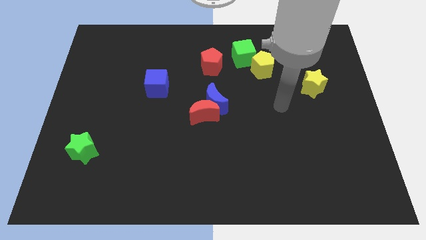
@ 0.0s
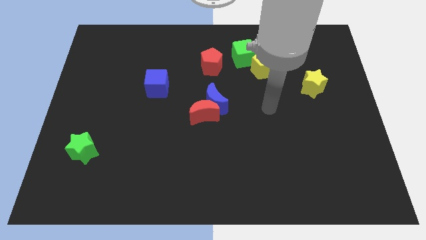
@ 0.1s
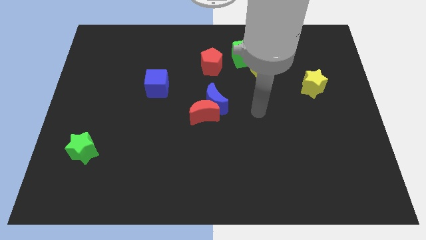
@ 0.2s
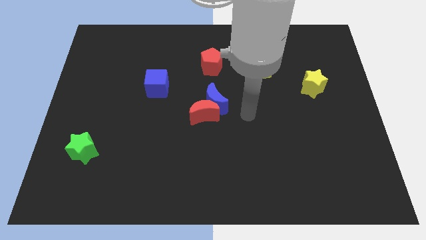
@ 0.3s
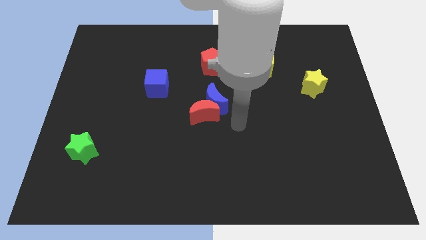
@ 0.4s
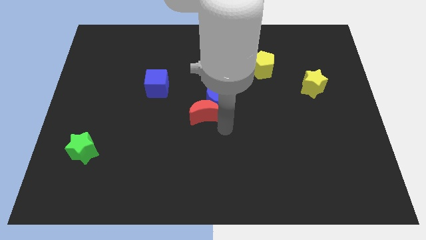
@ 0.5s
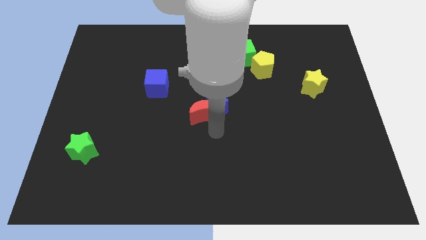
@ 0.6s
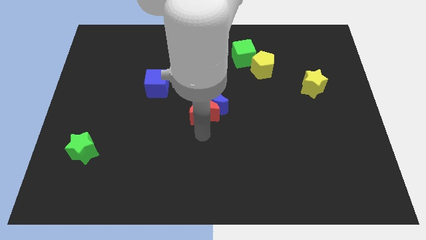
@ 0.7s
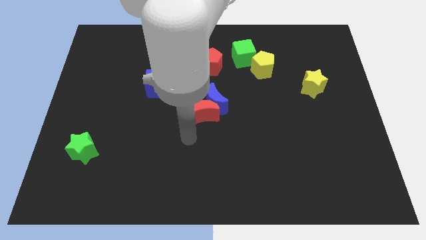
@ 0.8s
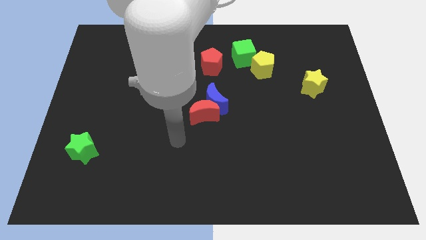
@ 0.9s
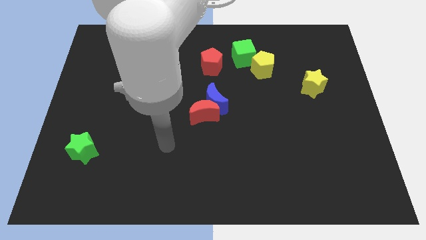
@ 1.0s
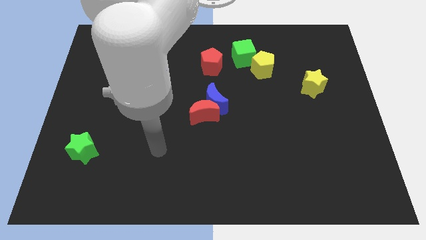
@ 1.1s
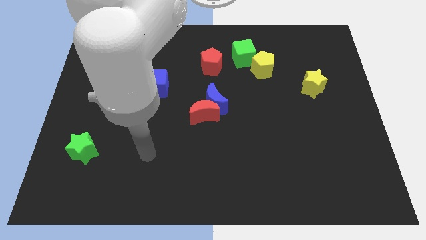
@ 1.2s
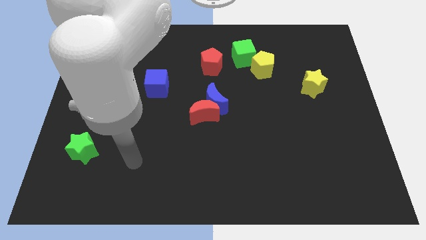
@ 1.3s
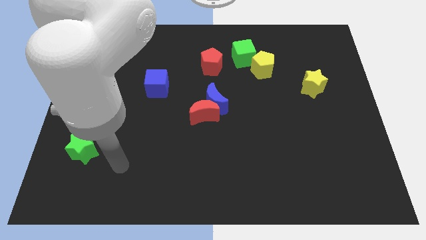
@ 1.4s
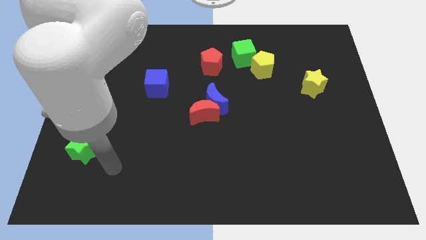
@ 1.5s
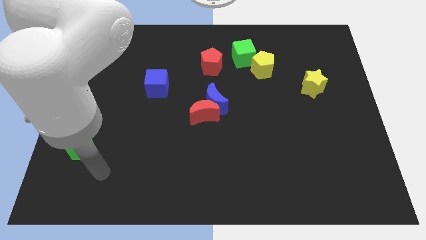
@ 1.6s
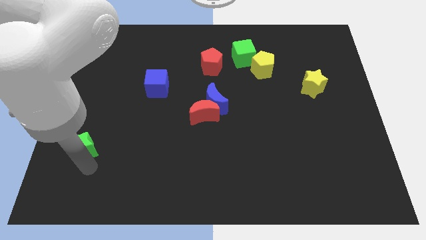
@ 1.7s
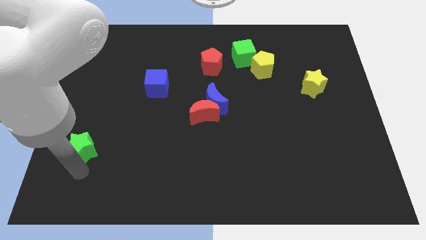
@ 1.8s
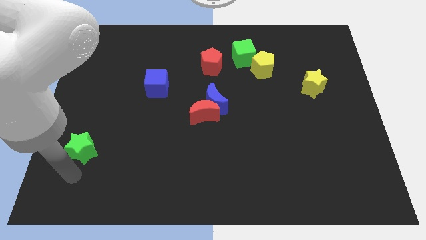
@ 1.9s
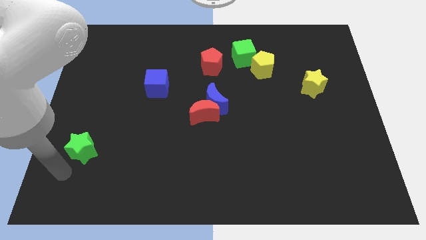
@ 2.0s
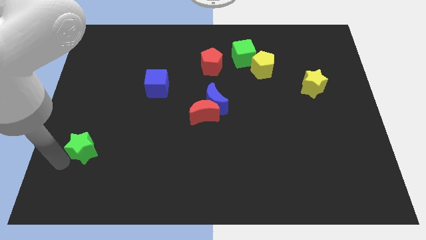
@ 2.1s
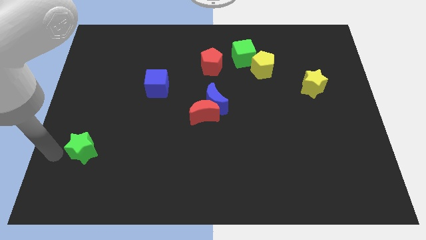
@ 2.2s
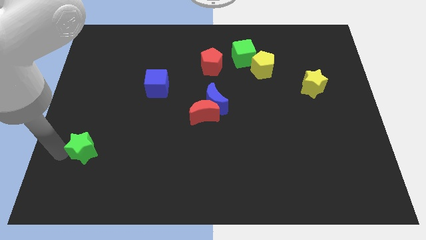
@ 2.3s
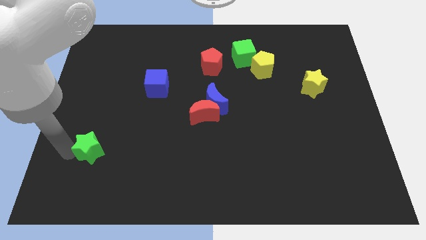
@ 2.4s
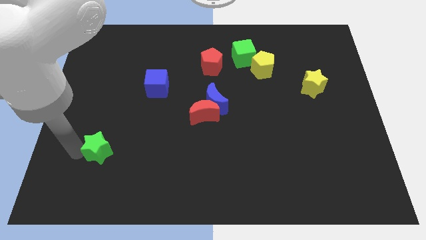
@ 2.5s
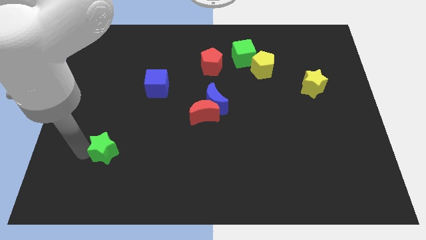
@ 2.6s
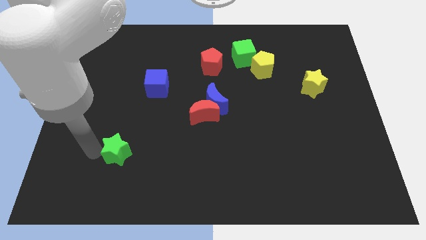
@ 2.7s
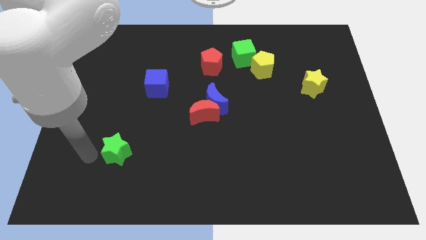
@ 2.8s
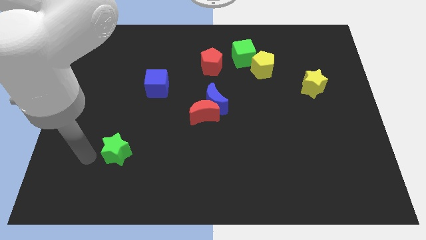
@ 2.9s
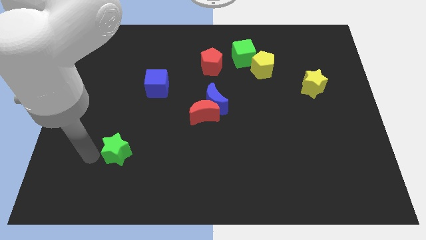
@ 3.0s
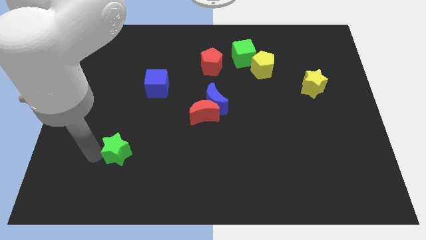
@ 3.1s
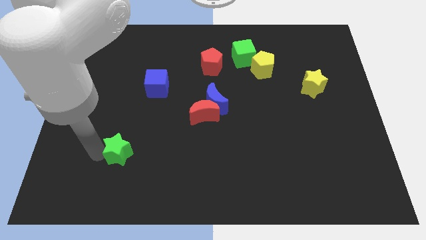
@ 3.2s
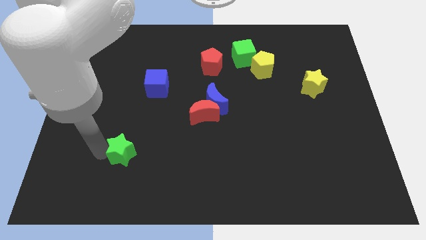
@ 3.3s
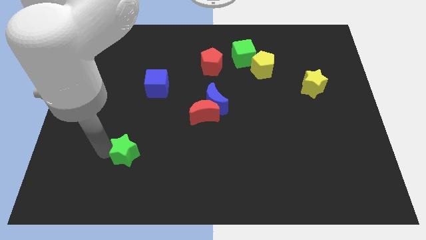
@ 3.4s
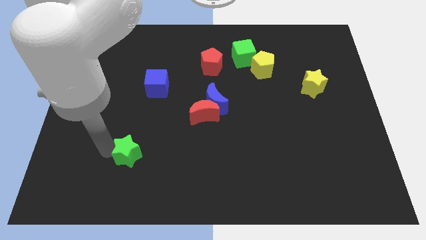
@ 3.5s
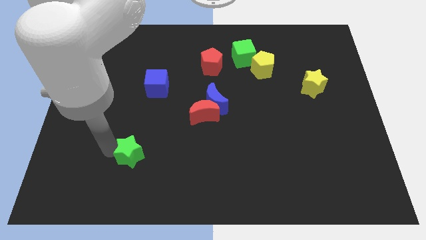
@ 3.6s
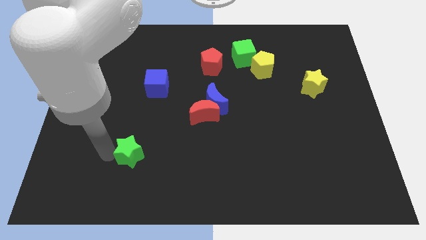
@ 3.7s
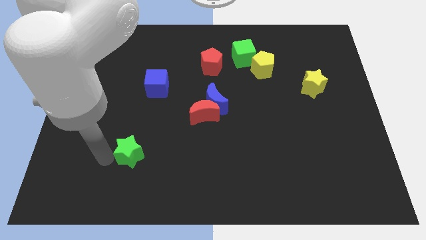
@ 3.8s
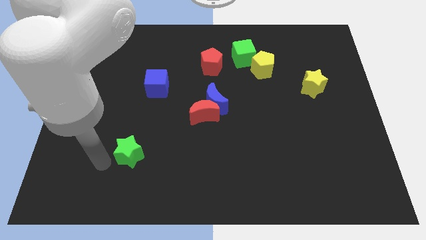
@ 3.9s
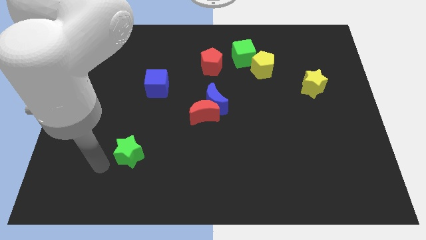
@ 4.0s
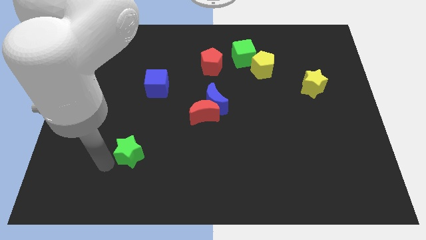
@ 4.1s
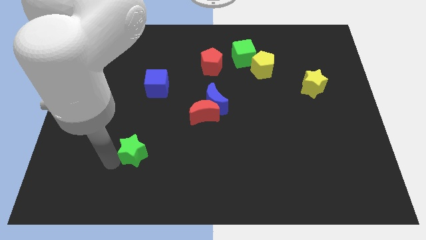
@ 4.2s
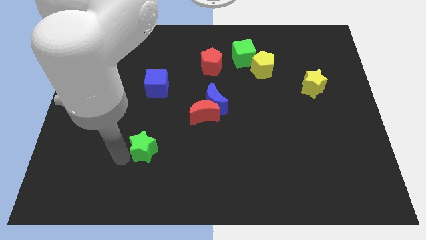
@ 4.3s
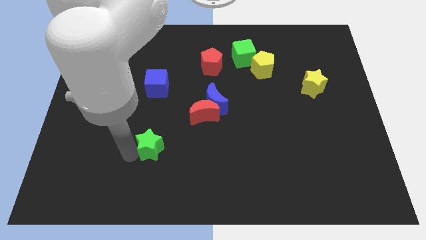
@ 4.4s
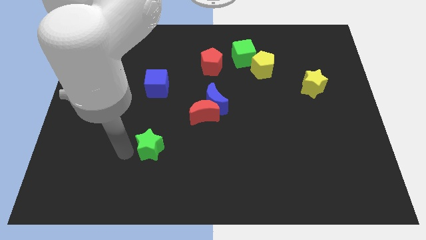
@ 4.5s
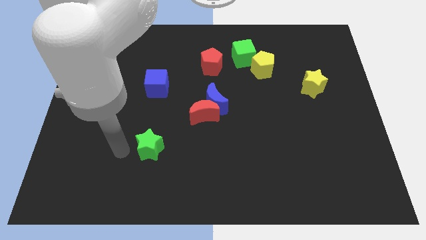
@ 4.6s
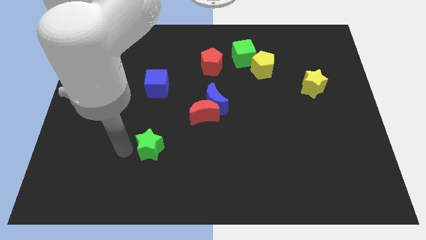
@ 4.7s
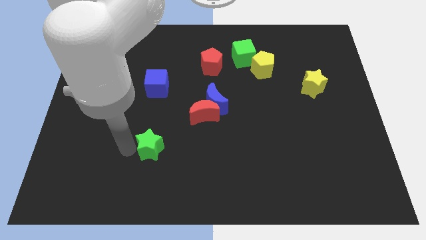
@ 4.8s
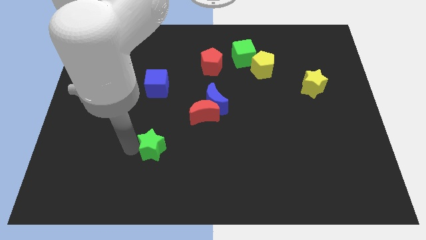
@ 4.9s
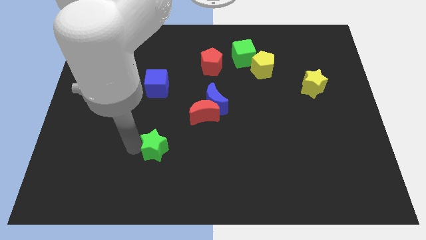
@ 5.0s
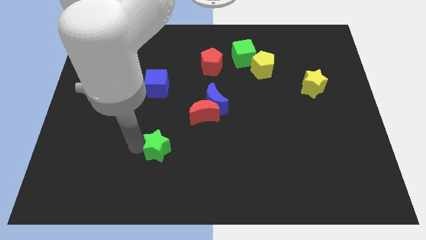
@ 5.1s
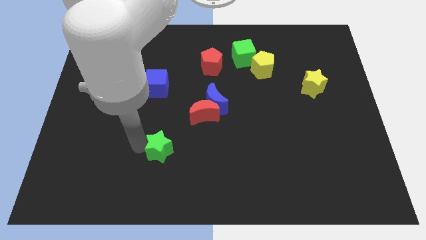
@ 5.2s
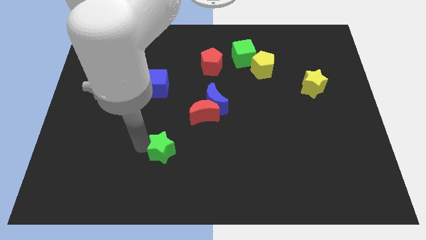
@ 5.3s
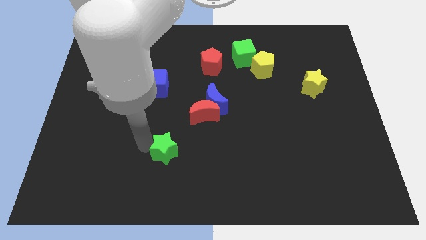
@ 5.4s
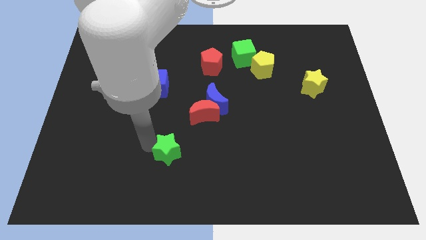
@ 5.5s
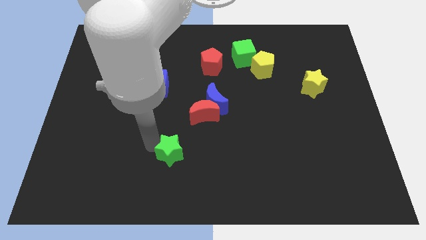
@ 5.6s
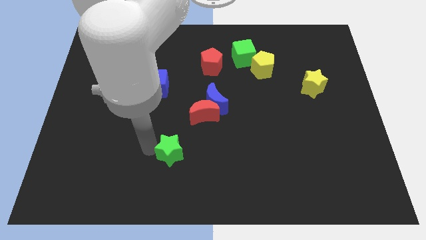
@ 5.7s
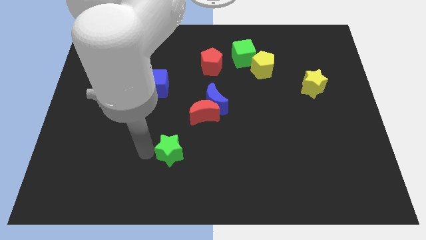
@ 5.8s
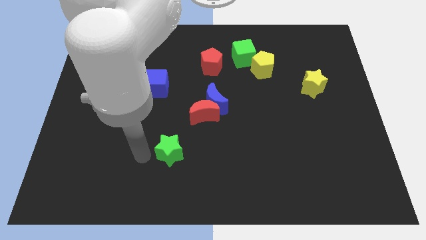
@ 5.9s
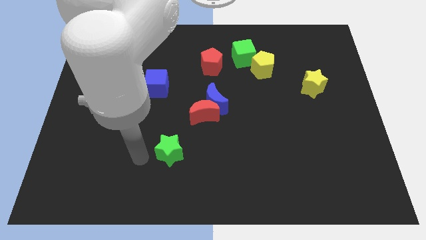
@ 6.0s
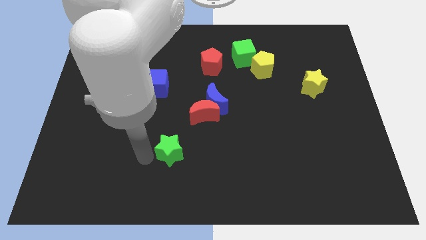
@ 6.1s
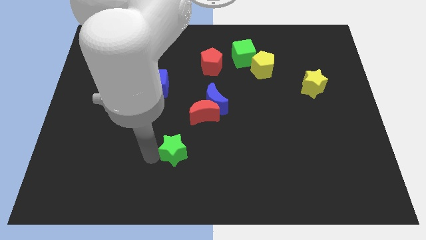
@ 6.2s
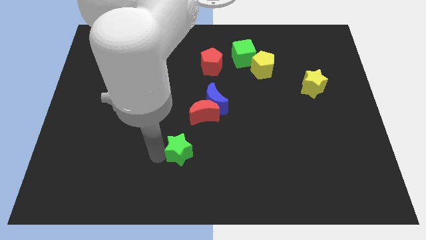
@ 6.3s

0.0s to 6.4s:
slide the green star to the right

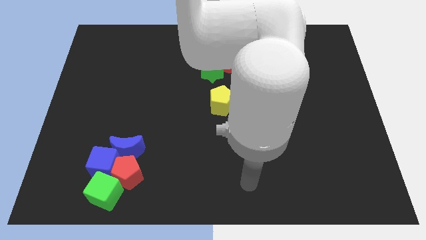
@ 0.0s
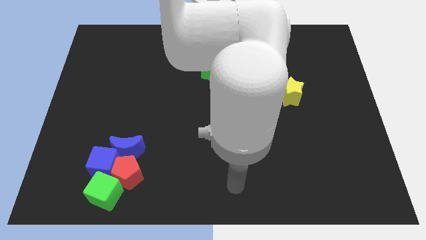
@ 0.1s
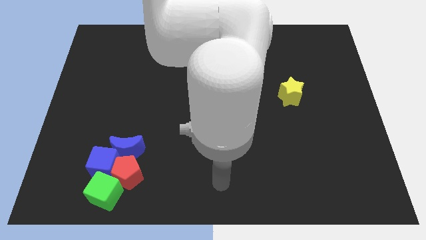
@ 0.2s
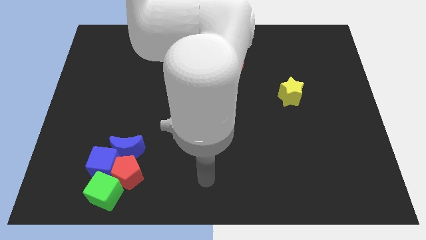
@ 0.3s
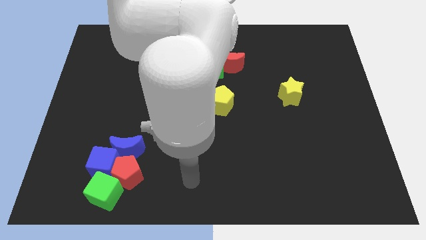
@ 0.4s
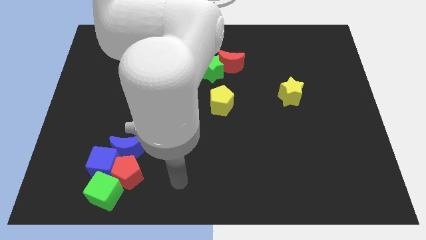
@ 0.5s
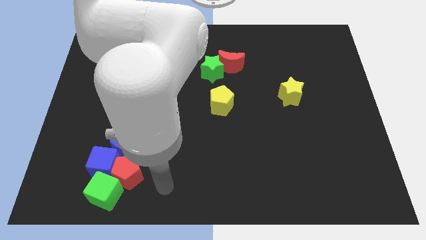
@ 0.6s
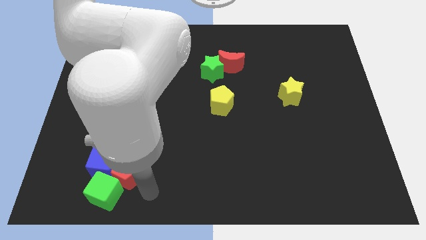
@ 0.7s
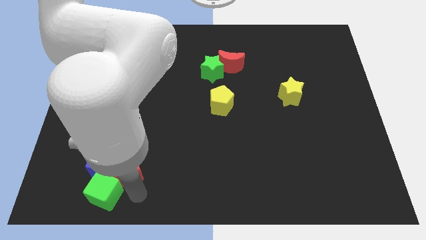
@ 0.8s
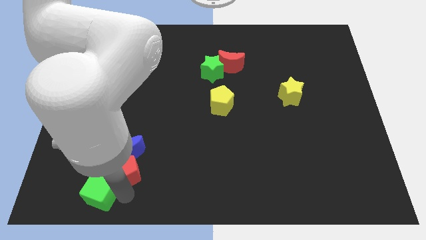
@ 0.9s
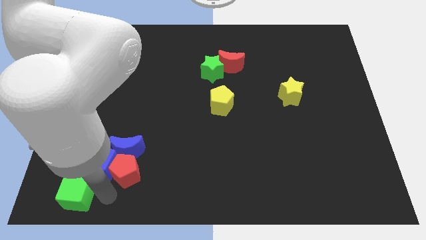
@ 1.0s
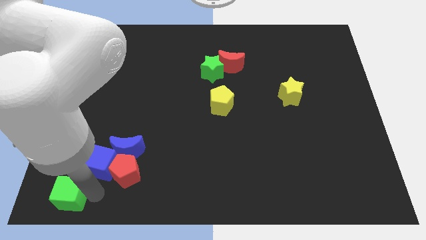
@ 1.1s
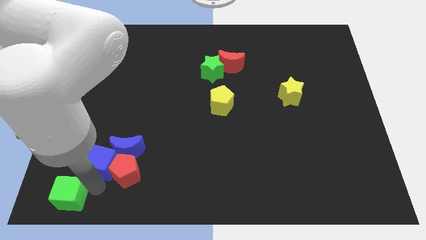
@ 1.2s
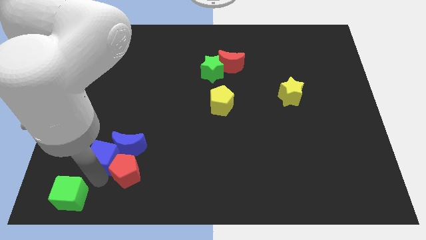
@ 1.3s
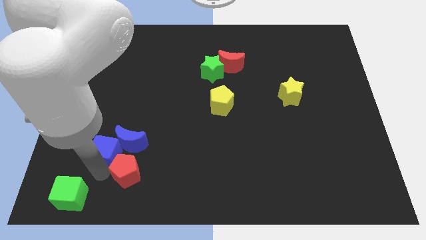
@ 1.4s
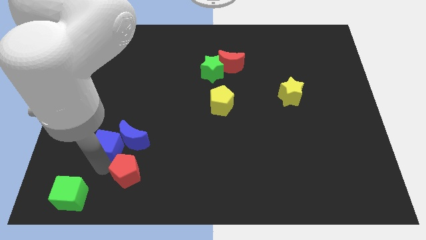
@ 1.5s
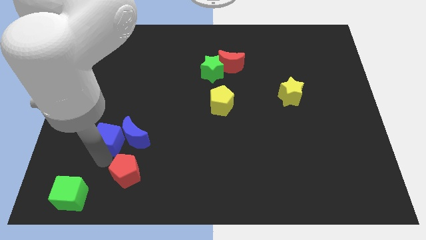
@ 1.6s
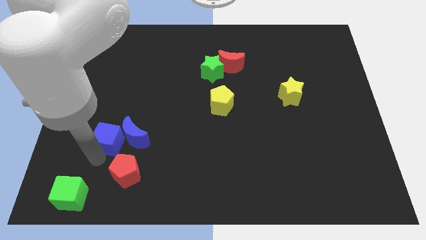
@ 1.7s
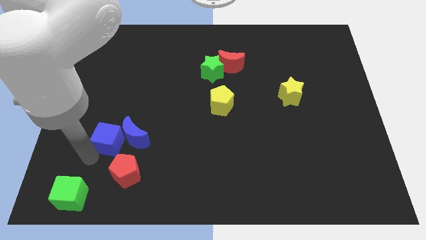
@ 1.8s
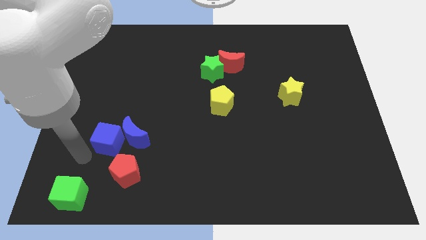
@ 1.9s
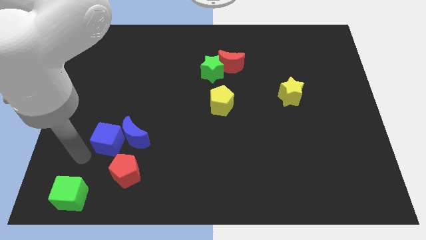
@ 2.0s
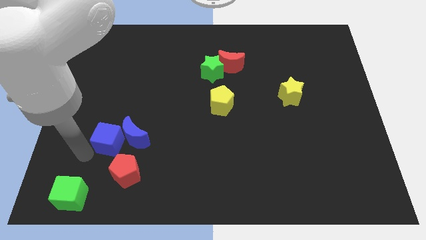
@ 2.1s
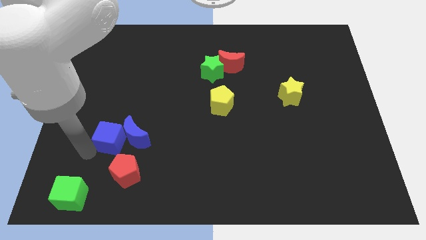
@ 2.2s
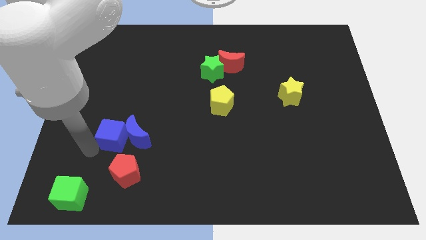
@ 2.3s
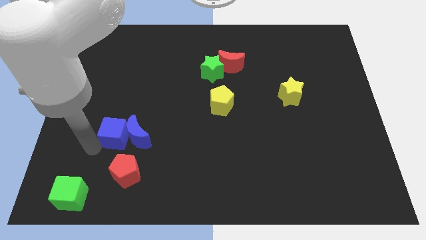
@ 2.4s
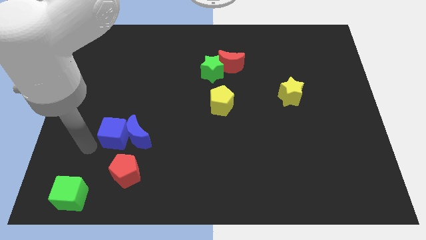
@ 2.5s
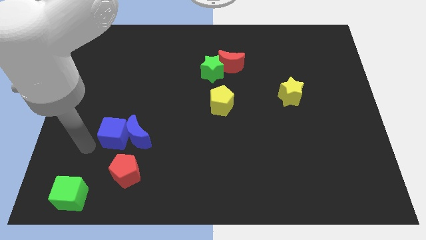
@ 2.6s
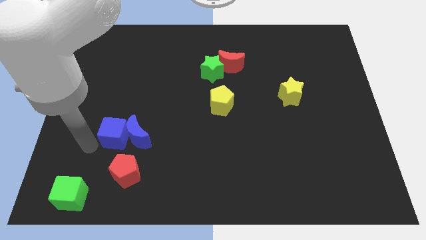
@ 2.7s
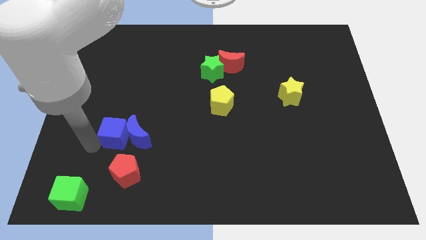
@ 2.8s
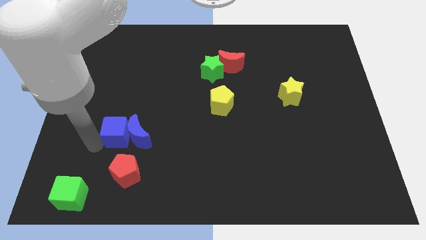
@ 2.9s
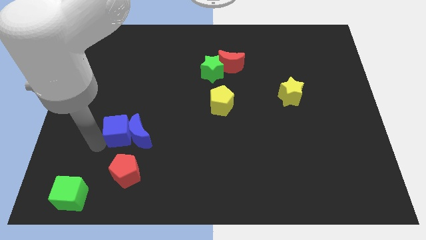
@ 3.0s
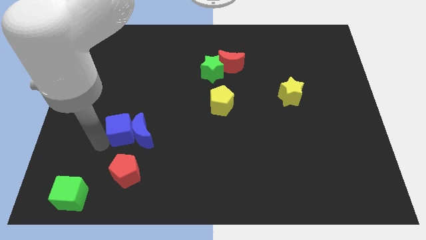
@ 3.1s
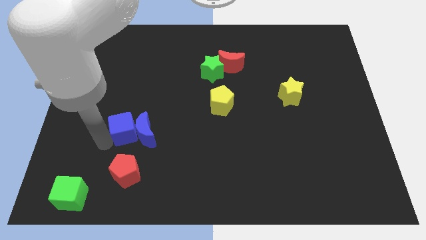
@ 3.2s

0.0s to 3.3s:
push the blue cube upwards and to the right diagonally a little bit
